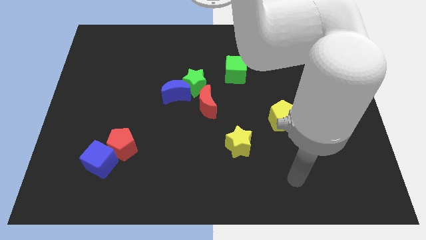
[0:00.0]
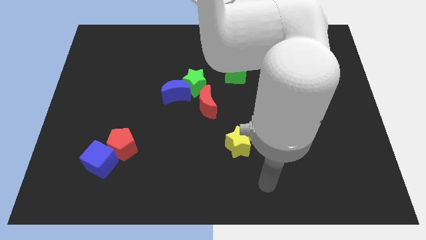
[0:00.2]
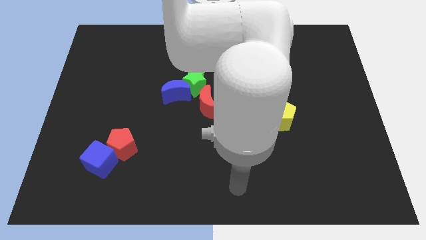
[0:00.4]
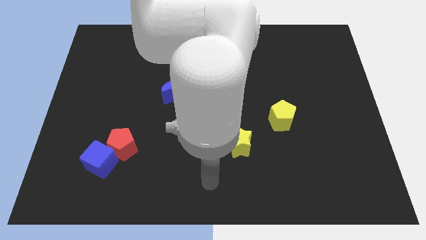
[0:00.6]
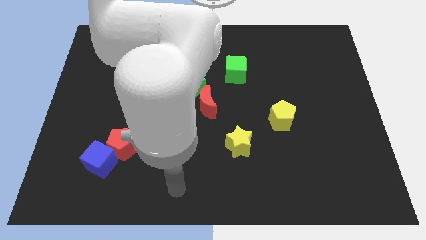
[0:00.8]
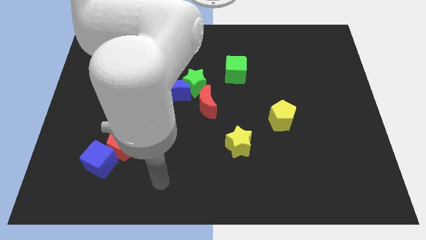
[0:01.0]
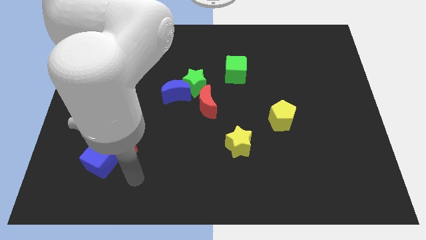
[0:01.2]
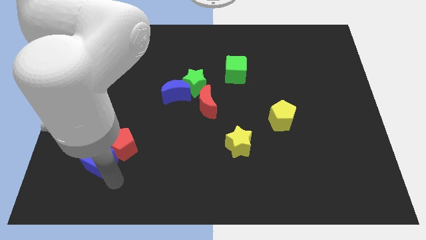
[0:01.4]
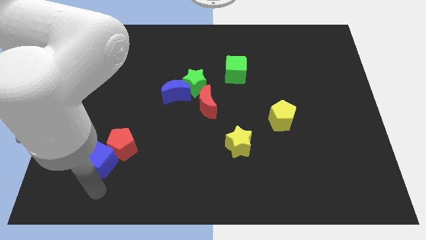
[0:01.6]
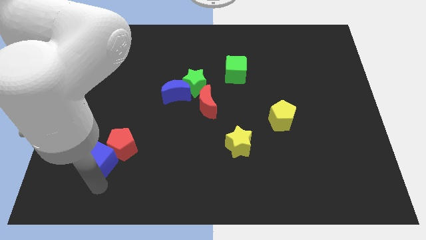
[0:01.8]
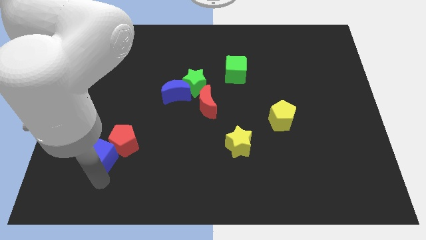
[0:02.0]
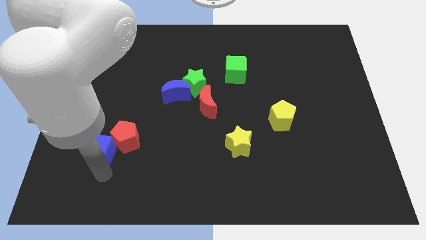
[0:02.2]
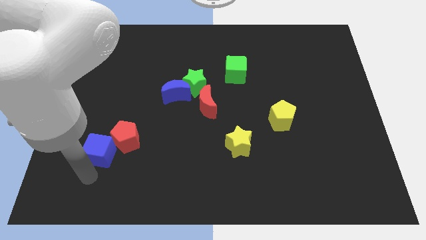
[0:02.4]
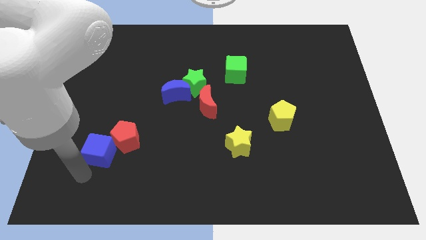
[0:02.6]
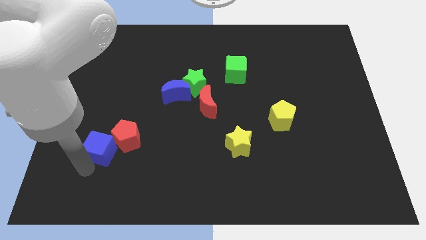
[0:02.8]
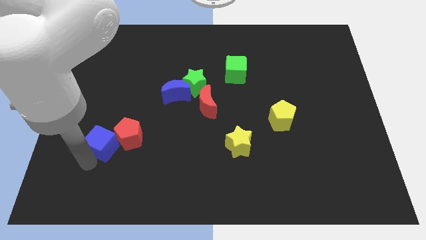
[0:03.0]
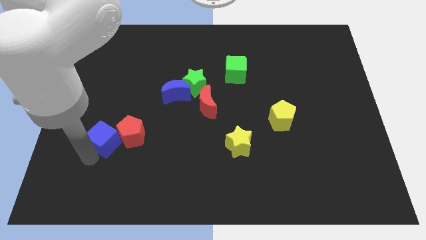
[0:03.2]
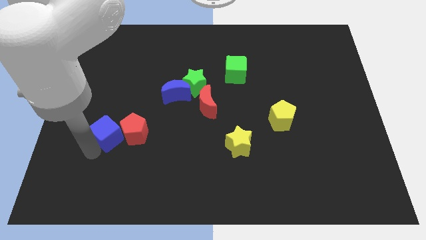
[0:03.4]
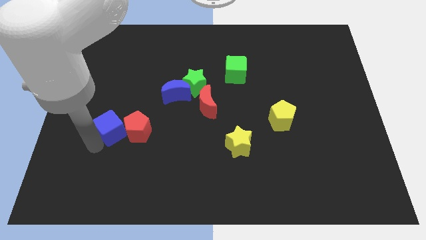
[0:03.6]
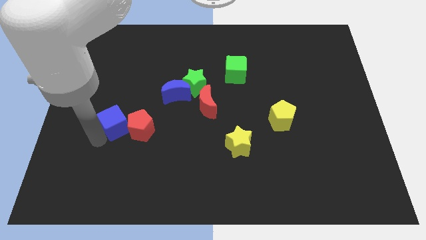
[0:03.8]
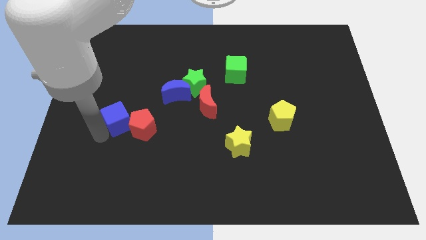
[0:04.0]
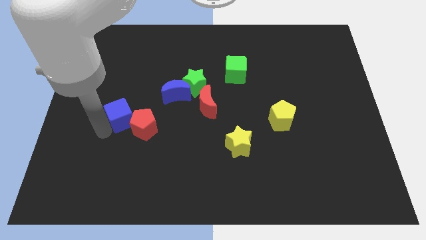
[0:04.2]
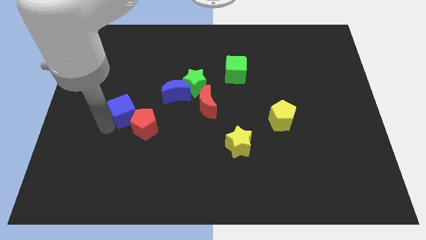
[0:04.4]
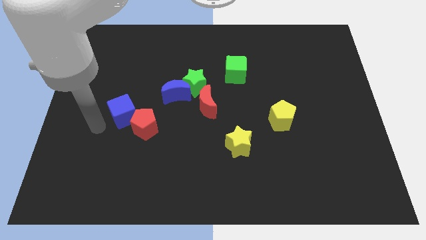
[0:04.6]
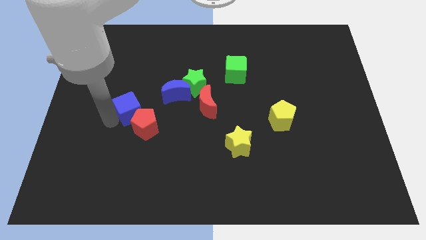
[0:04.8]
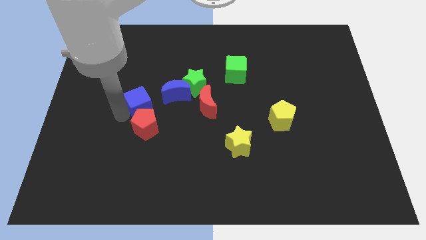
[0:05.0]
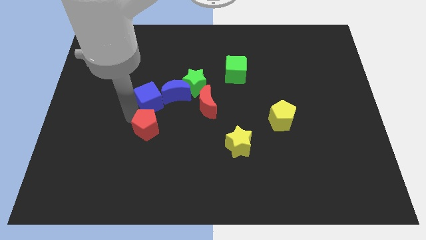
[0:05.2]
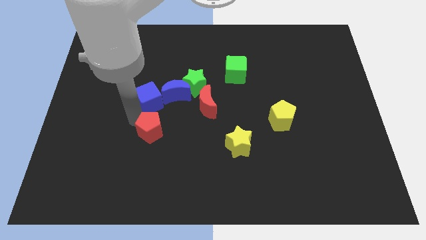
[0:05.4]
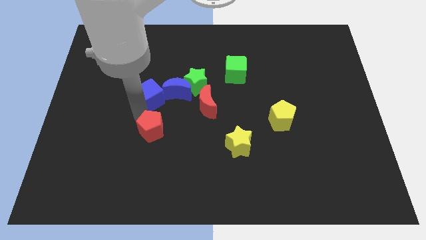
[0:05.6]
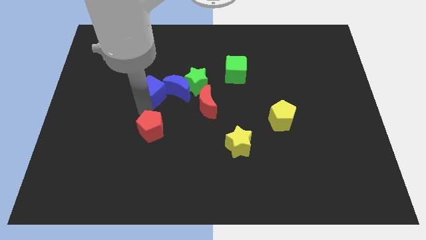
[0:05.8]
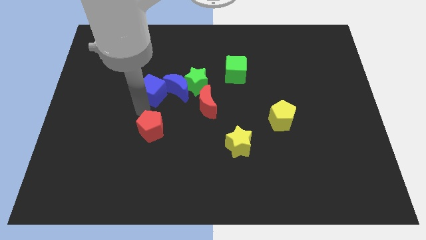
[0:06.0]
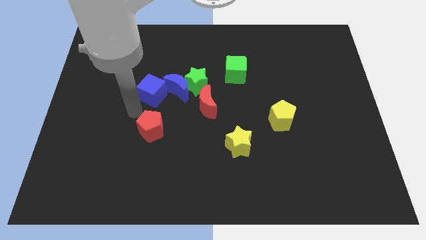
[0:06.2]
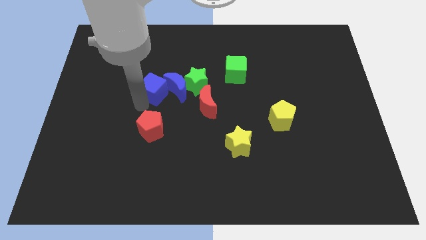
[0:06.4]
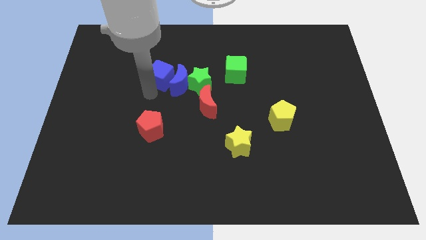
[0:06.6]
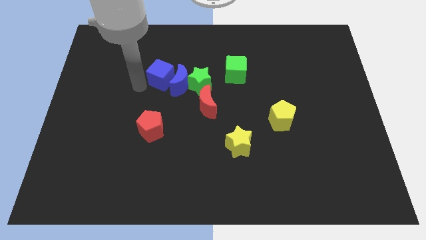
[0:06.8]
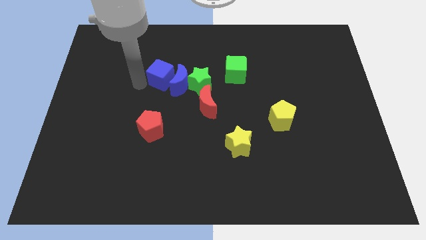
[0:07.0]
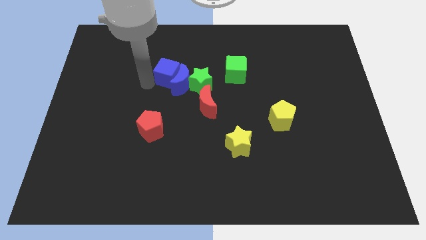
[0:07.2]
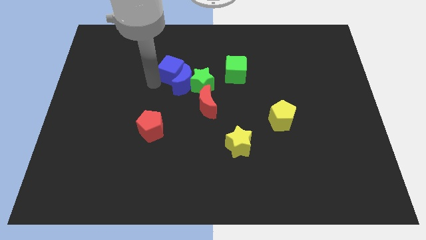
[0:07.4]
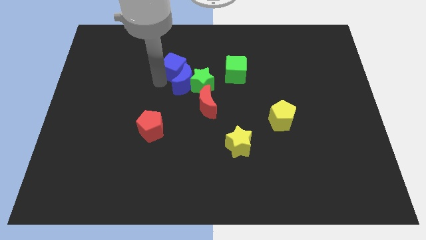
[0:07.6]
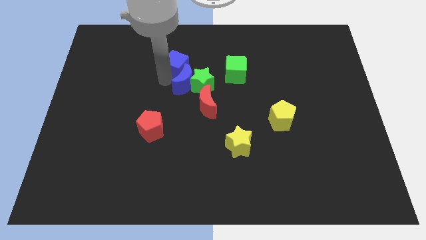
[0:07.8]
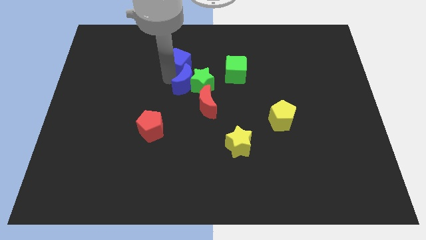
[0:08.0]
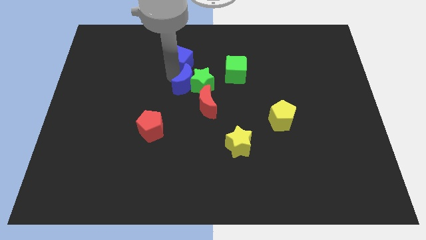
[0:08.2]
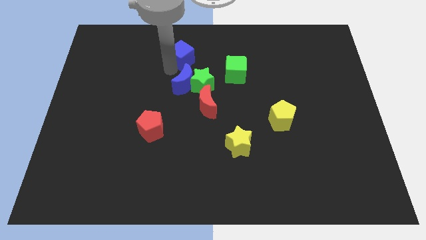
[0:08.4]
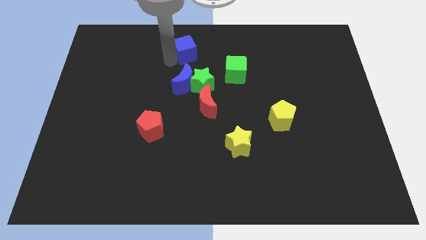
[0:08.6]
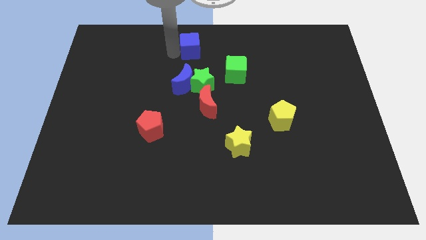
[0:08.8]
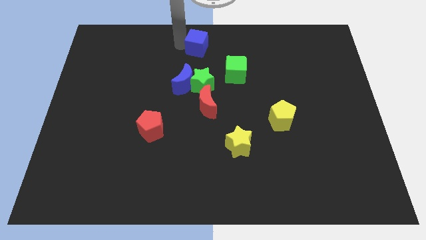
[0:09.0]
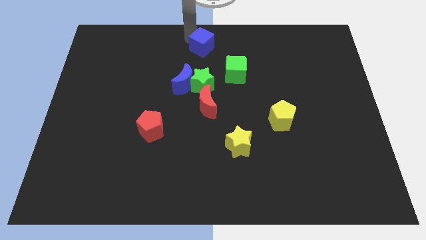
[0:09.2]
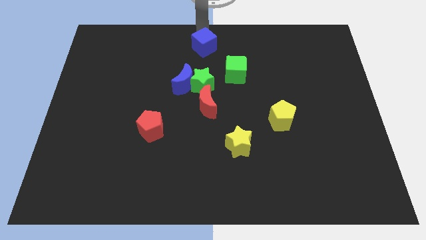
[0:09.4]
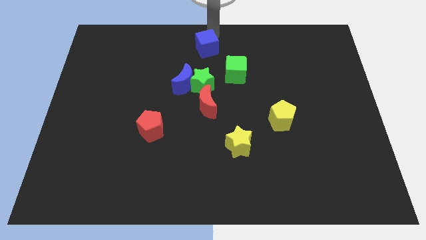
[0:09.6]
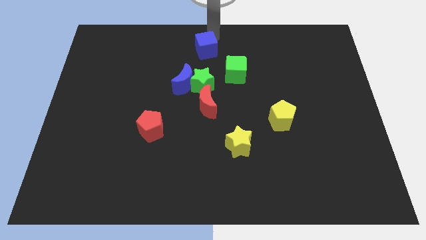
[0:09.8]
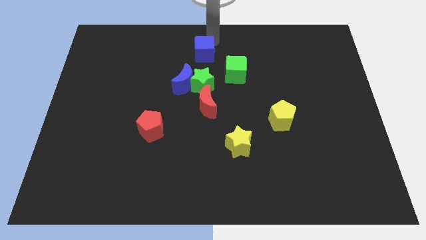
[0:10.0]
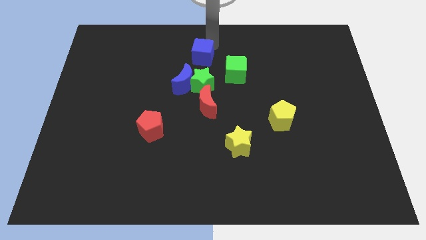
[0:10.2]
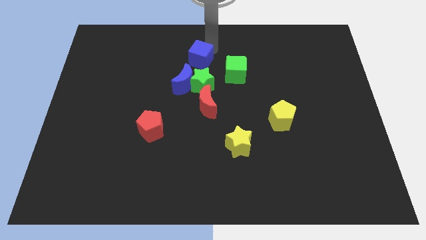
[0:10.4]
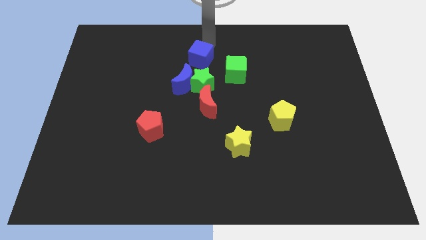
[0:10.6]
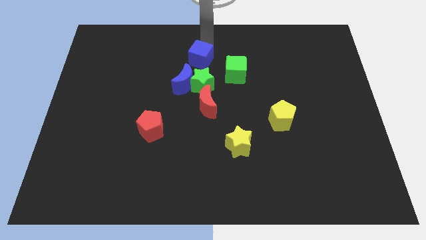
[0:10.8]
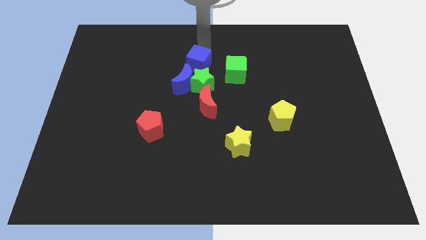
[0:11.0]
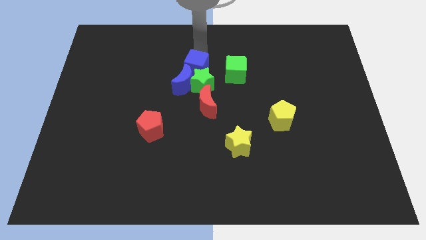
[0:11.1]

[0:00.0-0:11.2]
put the blue cube to the top right side of the green star

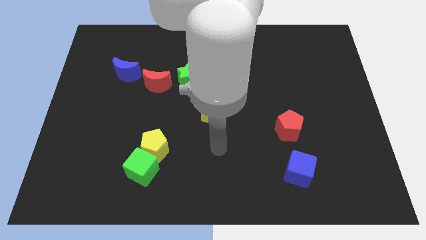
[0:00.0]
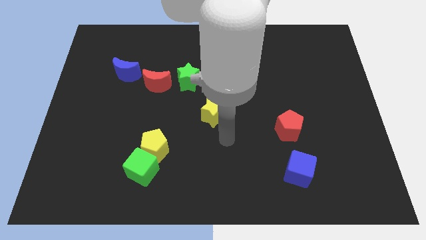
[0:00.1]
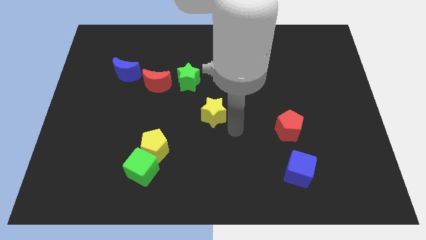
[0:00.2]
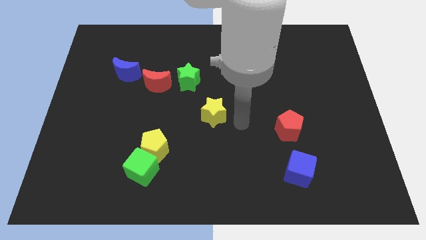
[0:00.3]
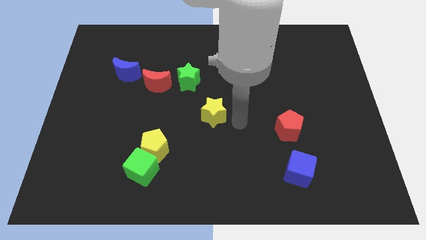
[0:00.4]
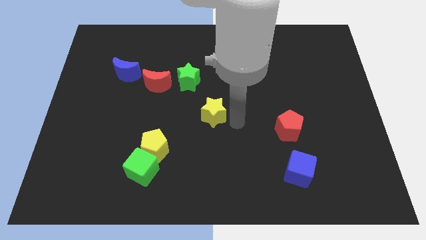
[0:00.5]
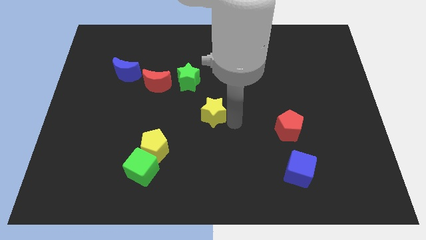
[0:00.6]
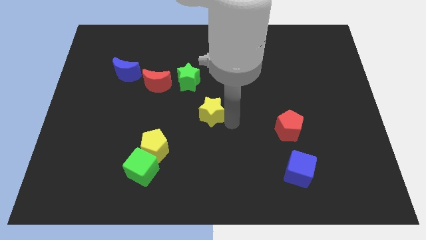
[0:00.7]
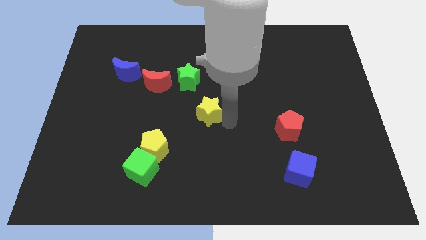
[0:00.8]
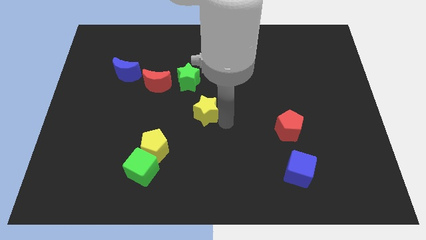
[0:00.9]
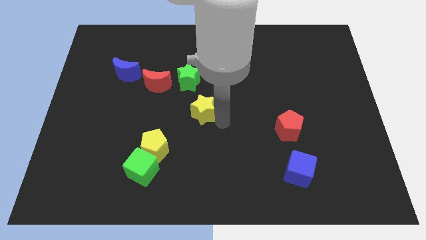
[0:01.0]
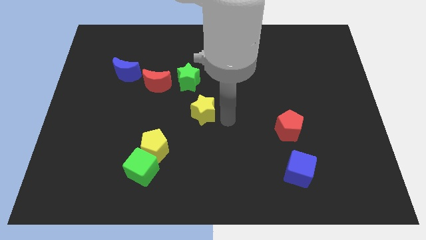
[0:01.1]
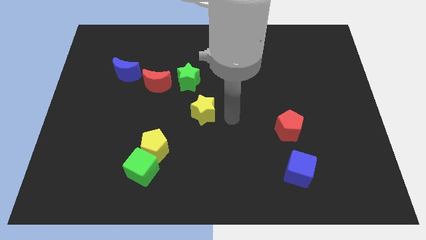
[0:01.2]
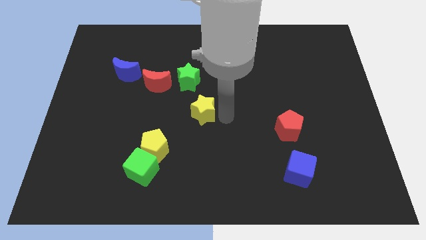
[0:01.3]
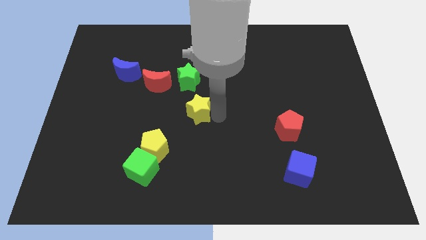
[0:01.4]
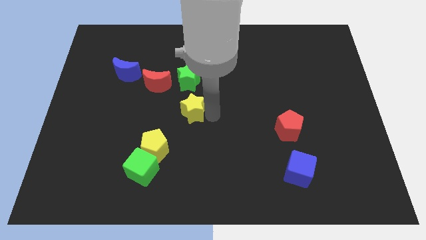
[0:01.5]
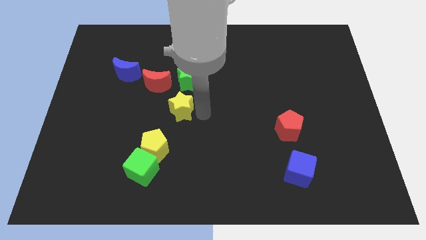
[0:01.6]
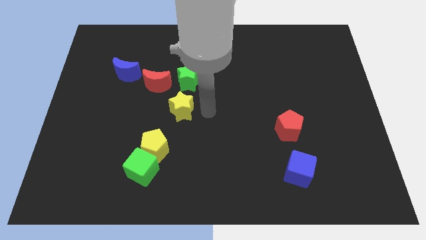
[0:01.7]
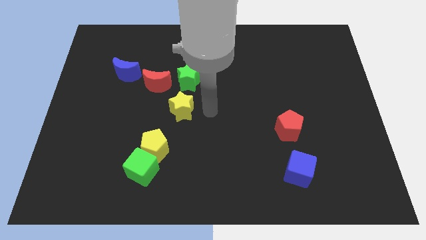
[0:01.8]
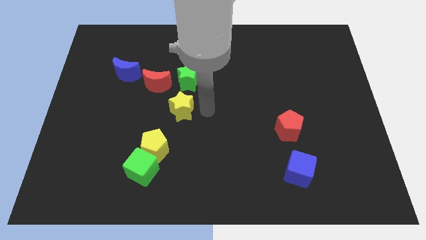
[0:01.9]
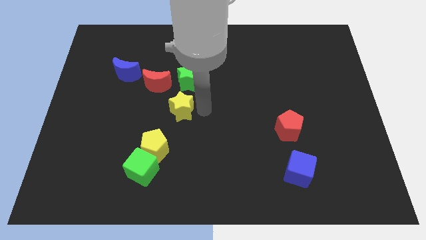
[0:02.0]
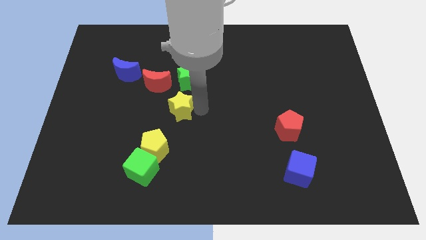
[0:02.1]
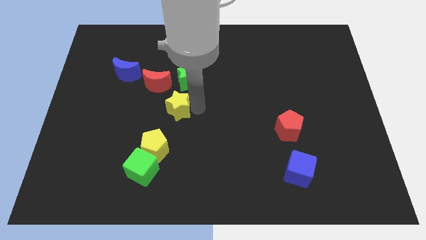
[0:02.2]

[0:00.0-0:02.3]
slide the yellow star above the yellow pentagon
